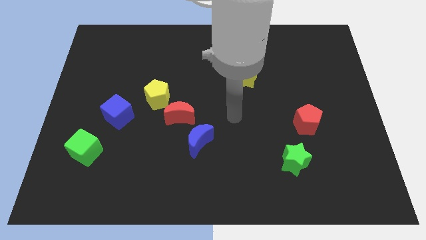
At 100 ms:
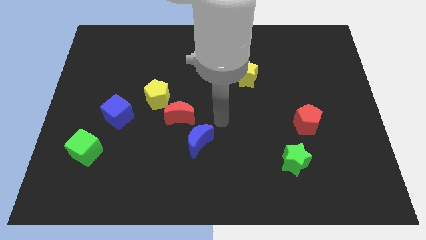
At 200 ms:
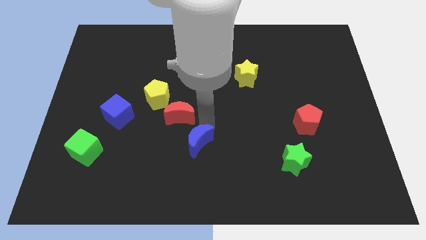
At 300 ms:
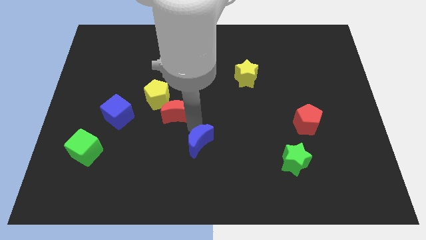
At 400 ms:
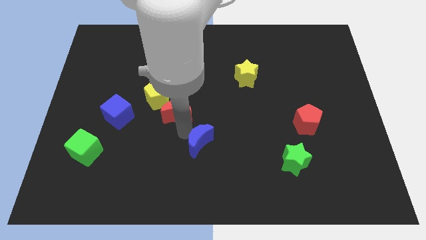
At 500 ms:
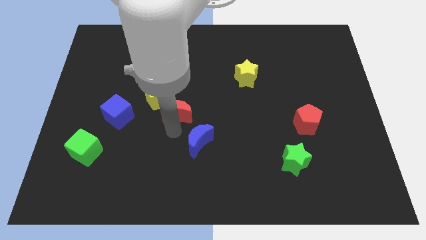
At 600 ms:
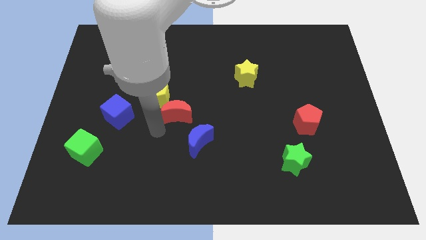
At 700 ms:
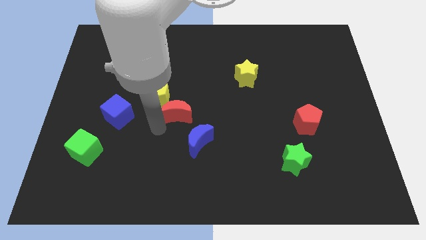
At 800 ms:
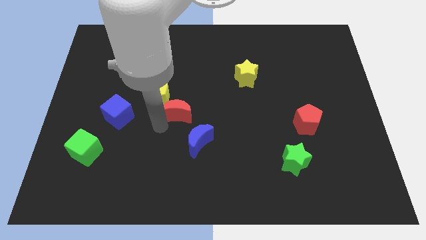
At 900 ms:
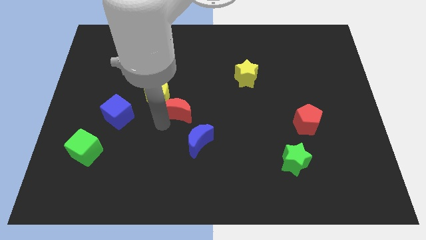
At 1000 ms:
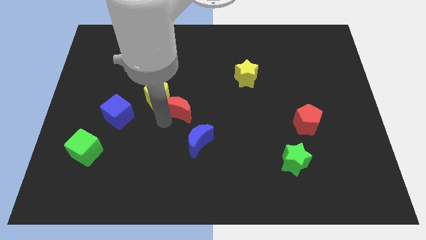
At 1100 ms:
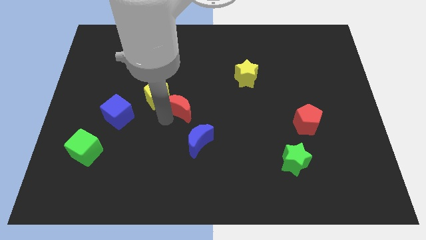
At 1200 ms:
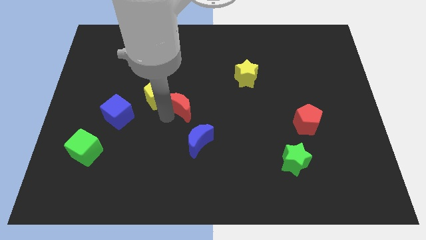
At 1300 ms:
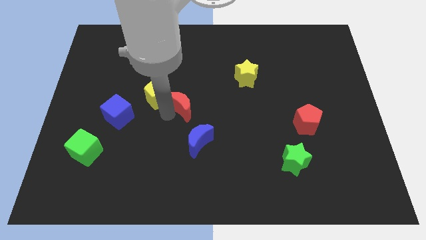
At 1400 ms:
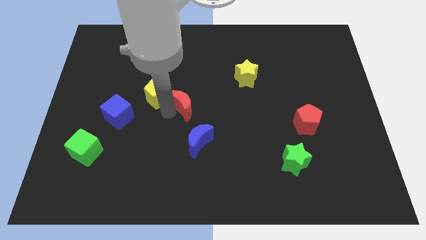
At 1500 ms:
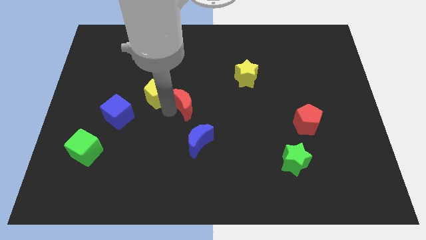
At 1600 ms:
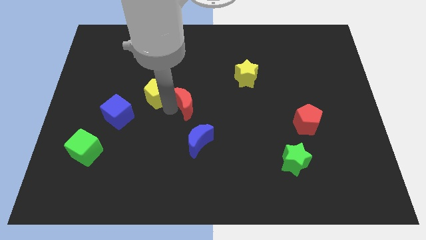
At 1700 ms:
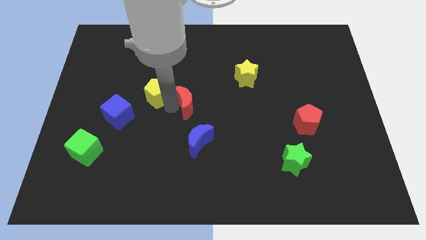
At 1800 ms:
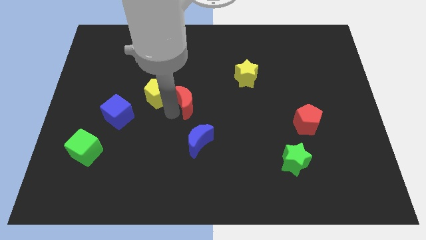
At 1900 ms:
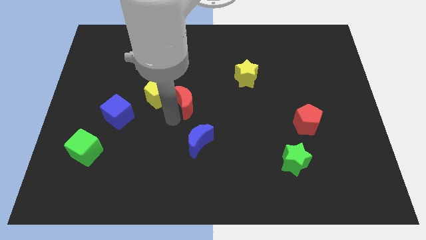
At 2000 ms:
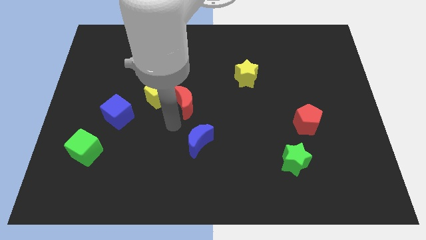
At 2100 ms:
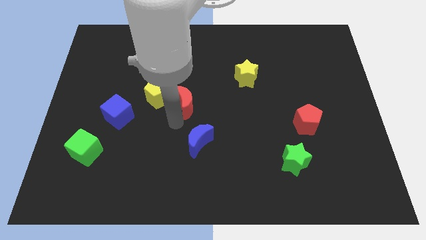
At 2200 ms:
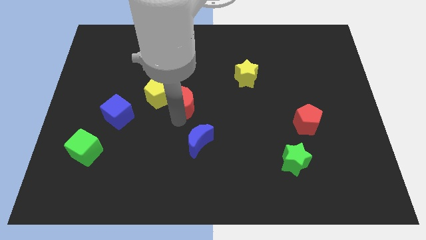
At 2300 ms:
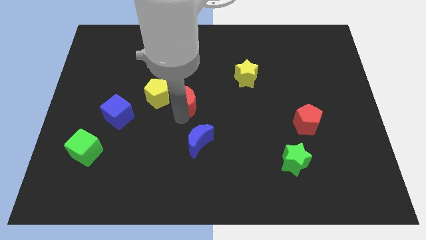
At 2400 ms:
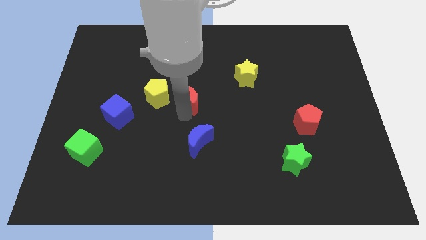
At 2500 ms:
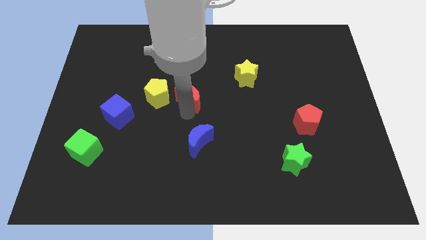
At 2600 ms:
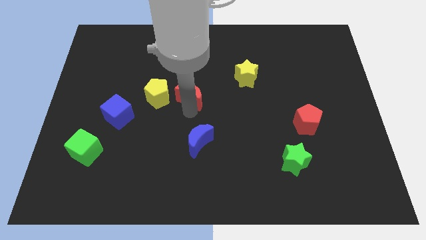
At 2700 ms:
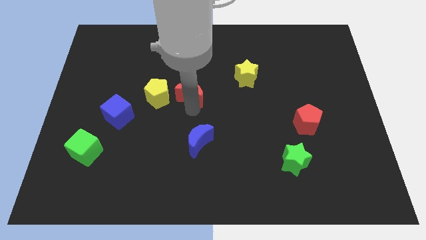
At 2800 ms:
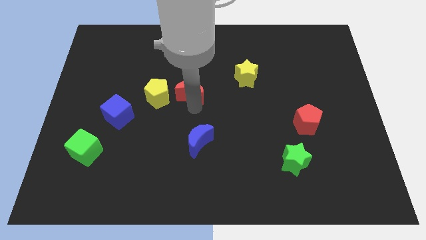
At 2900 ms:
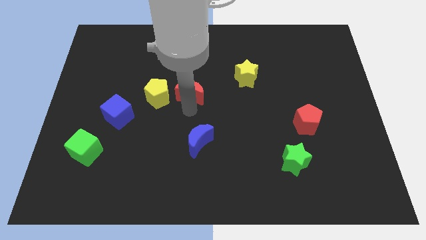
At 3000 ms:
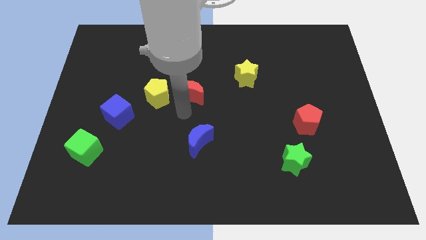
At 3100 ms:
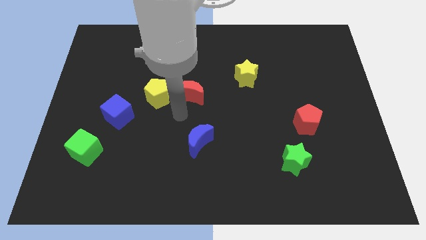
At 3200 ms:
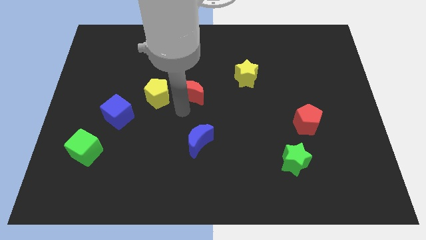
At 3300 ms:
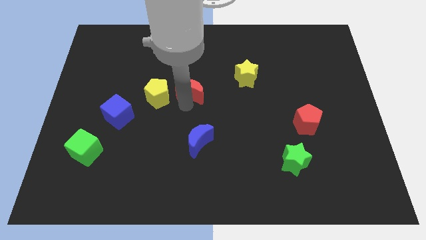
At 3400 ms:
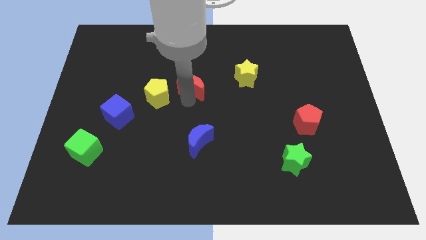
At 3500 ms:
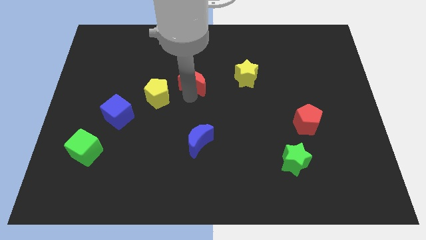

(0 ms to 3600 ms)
pull the red moon apart from the yellow pentagon and blue moon

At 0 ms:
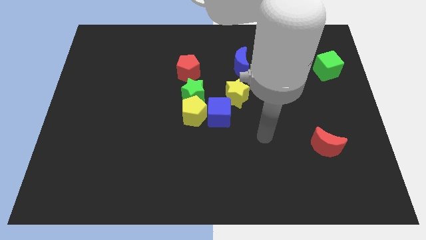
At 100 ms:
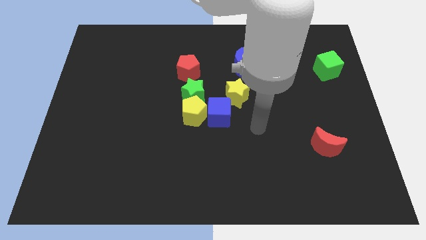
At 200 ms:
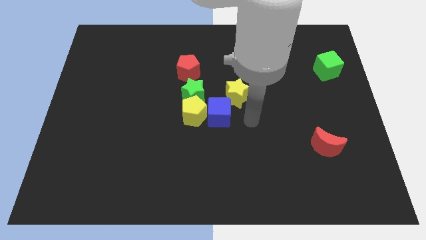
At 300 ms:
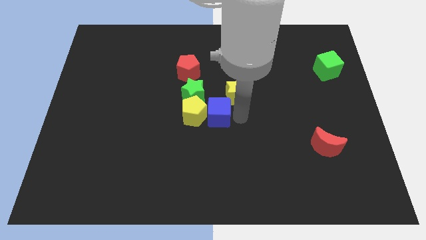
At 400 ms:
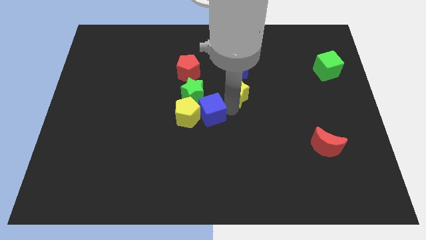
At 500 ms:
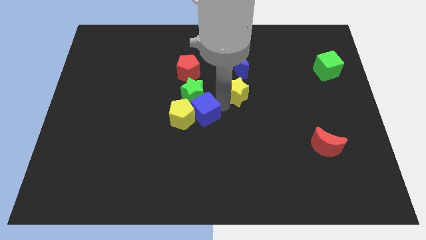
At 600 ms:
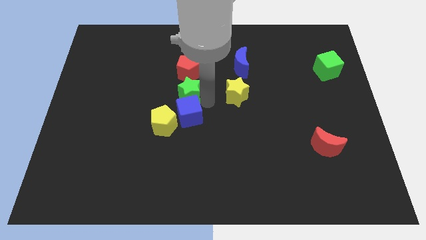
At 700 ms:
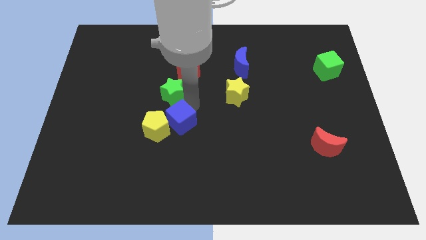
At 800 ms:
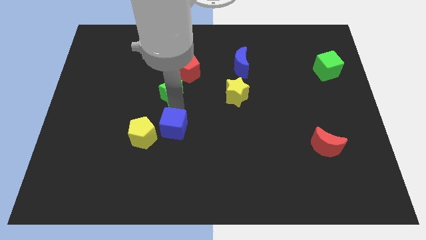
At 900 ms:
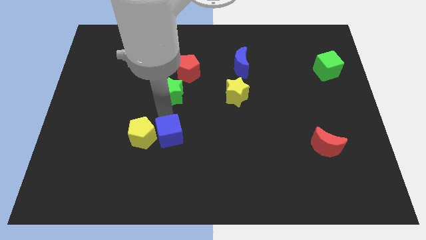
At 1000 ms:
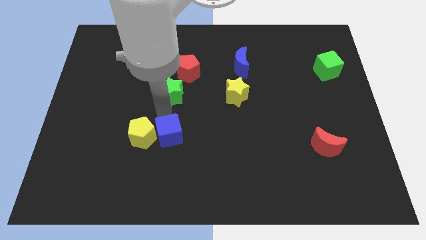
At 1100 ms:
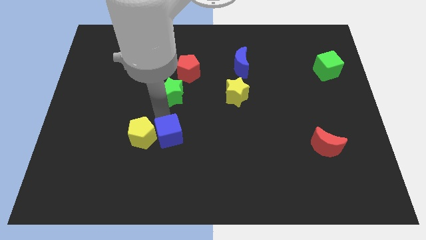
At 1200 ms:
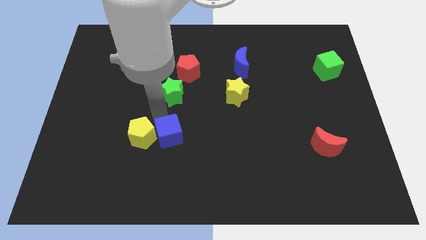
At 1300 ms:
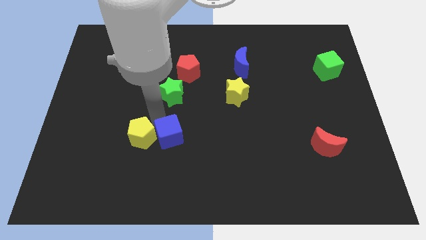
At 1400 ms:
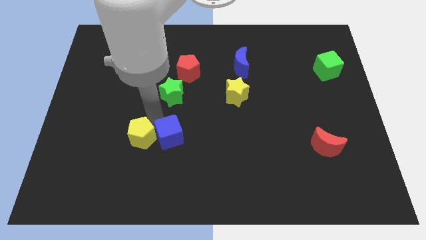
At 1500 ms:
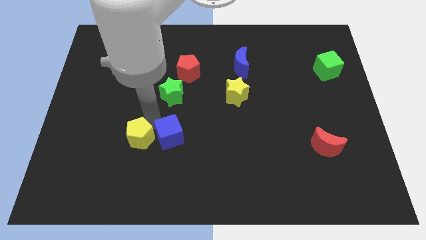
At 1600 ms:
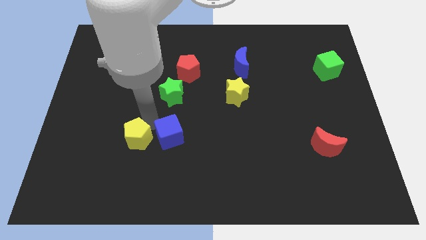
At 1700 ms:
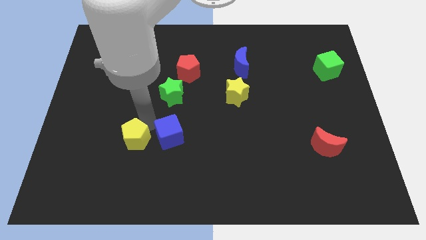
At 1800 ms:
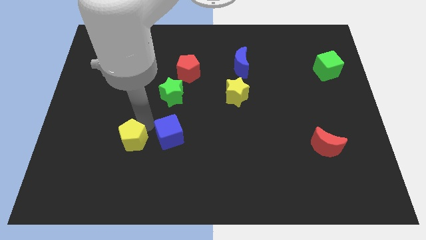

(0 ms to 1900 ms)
pull the yellow pentagon apart from the green star and blue cube

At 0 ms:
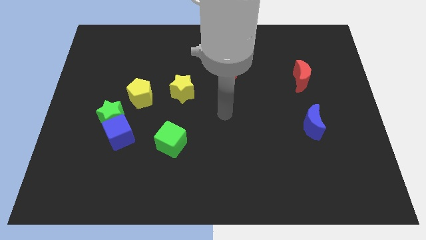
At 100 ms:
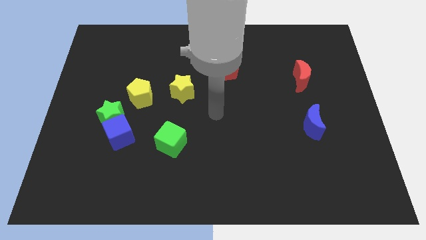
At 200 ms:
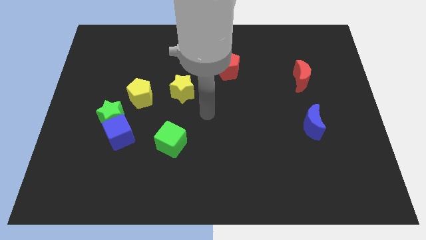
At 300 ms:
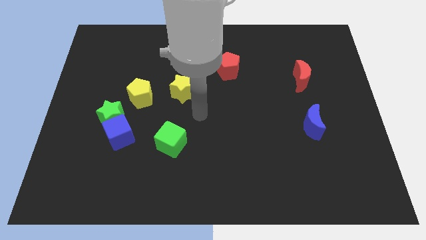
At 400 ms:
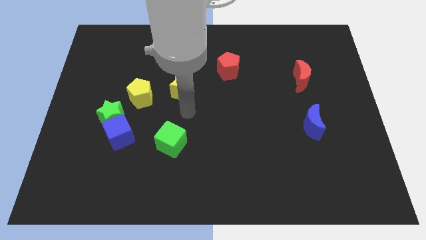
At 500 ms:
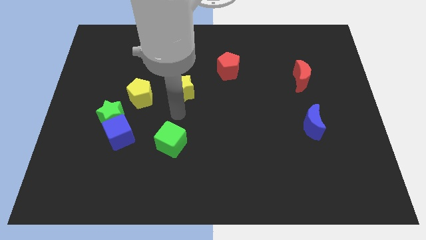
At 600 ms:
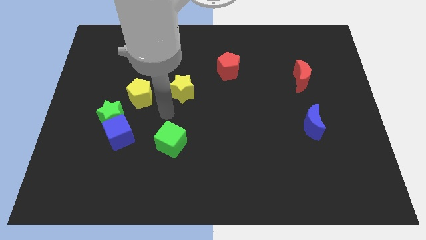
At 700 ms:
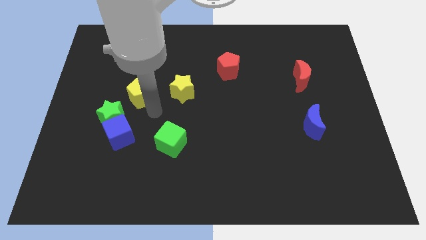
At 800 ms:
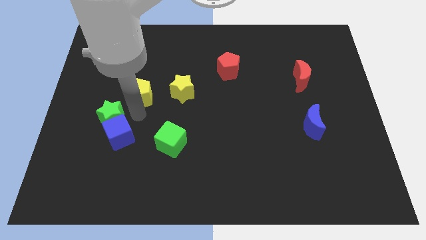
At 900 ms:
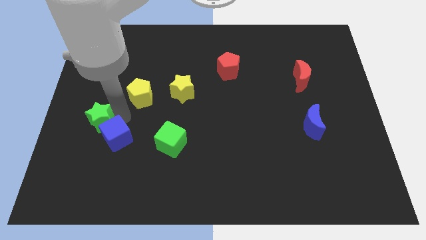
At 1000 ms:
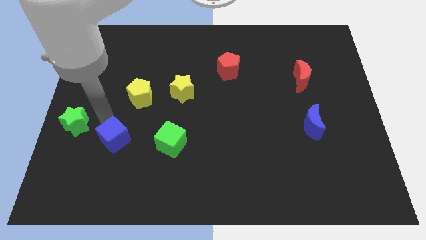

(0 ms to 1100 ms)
move the blue cube away from the green star

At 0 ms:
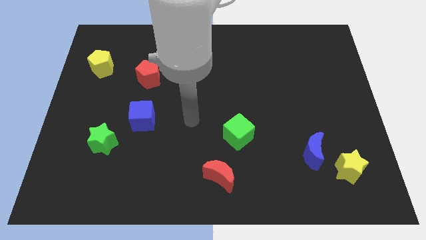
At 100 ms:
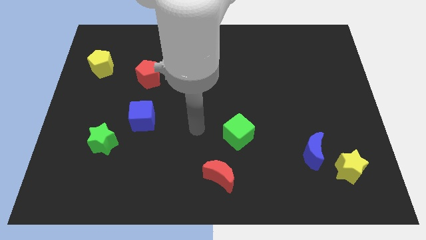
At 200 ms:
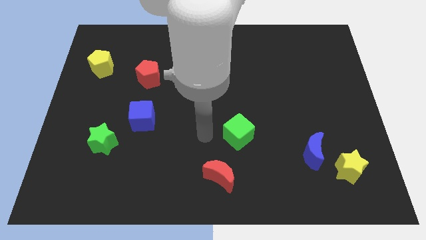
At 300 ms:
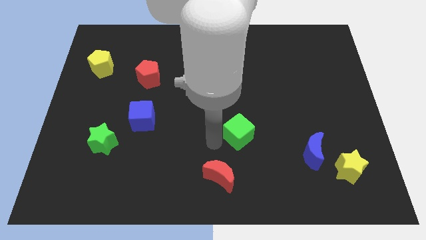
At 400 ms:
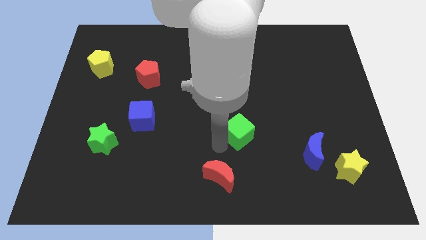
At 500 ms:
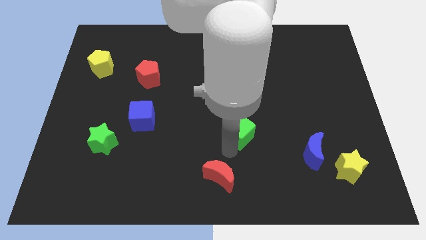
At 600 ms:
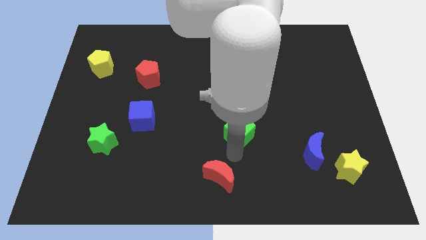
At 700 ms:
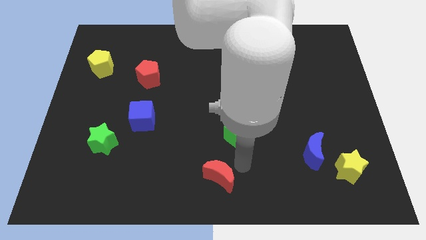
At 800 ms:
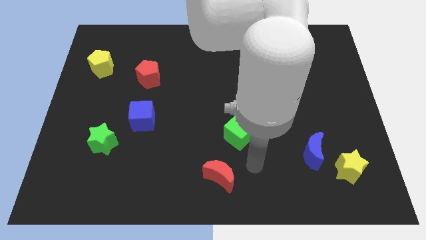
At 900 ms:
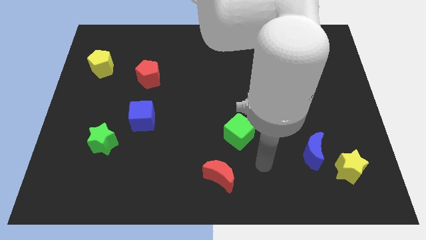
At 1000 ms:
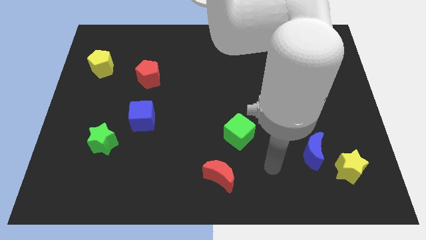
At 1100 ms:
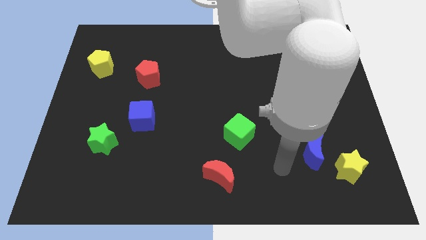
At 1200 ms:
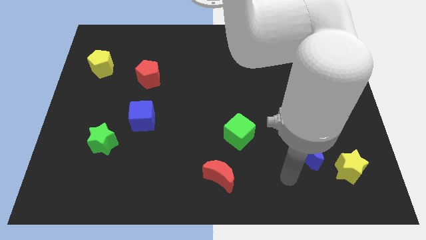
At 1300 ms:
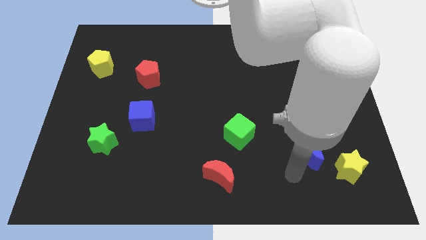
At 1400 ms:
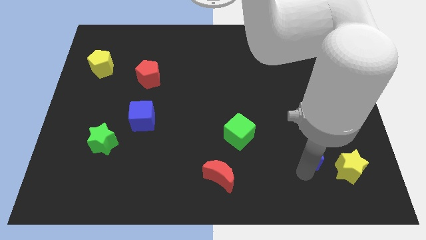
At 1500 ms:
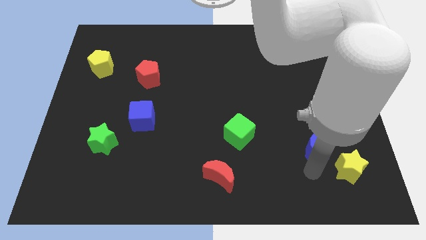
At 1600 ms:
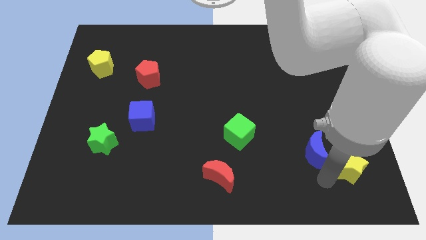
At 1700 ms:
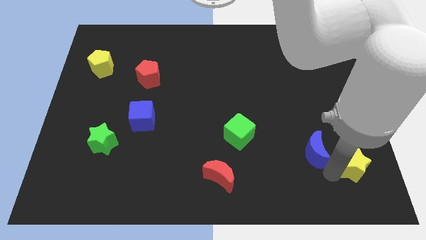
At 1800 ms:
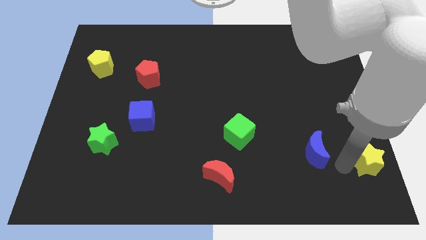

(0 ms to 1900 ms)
separate the blue moon from the yellow star

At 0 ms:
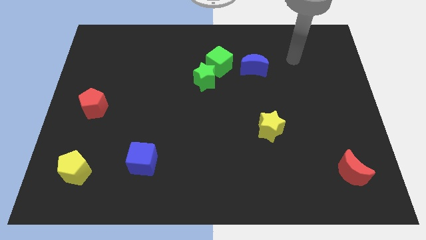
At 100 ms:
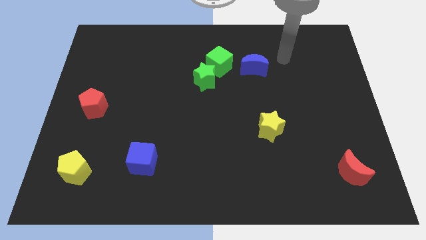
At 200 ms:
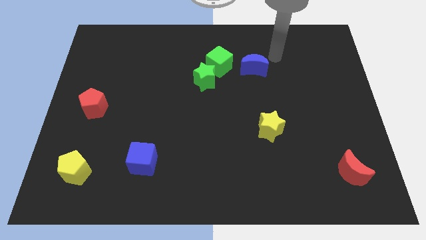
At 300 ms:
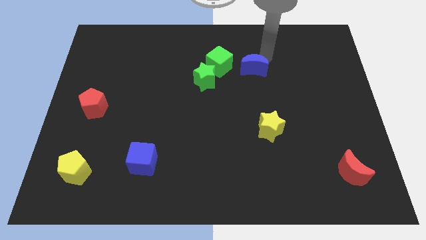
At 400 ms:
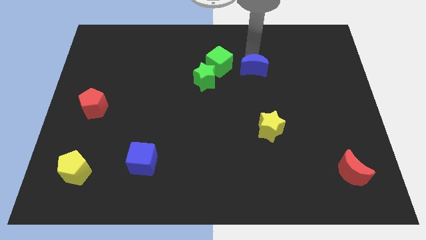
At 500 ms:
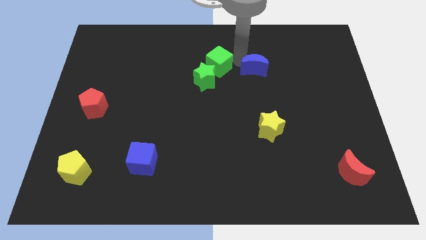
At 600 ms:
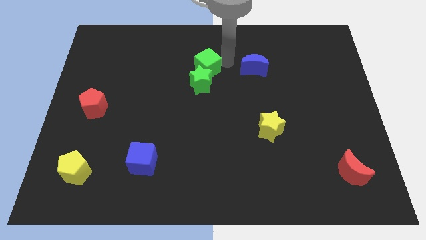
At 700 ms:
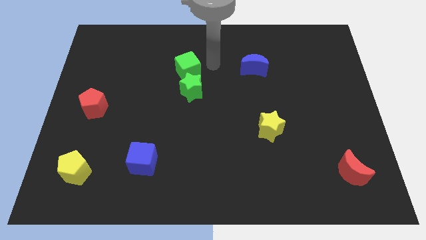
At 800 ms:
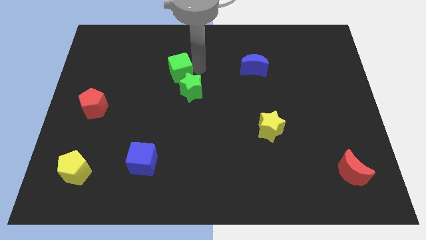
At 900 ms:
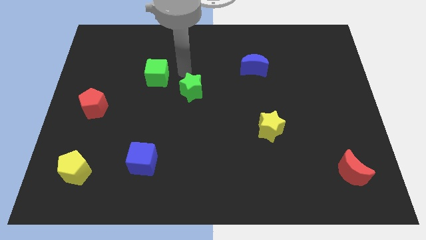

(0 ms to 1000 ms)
move the green star away from the green cube
